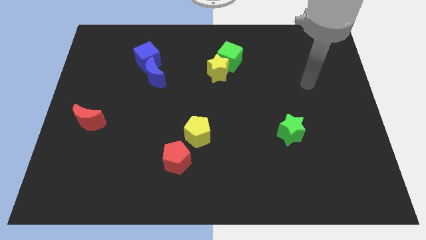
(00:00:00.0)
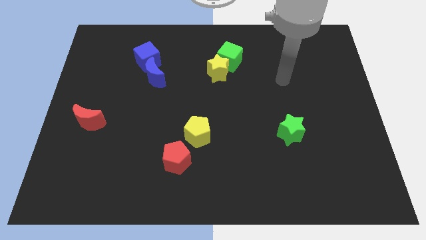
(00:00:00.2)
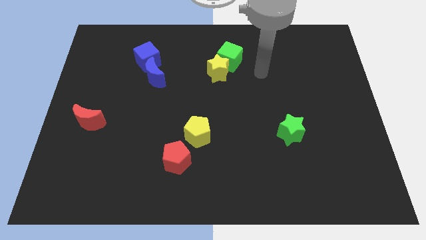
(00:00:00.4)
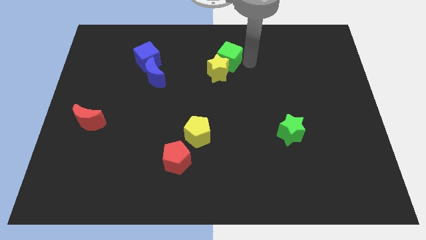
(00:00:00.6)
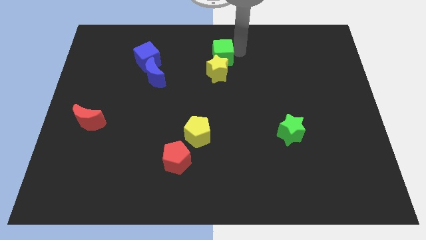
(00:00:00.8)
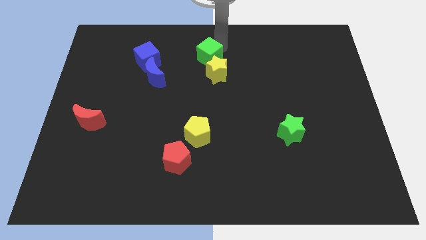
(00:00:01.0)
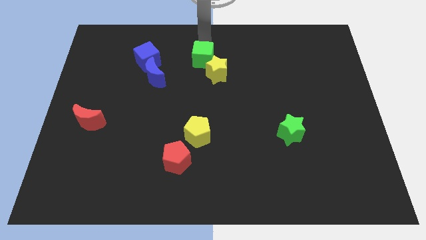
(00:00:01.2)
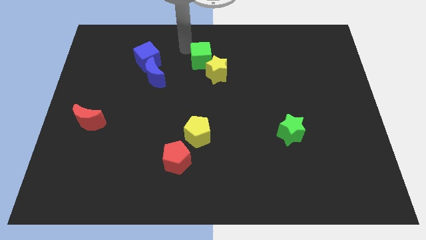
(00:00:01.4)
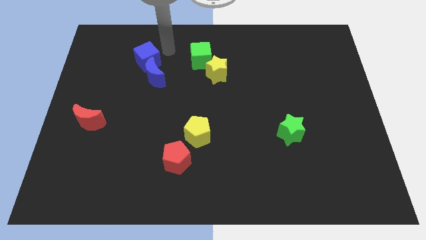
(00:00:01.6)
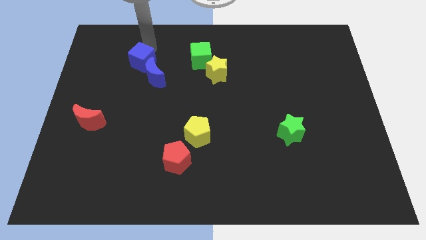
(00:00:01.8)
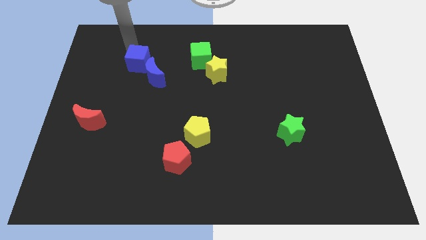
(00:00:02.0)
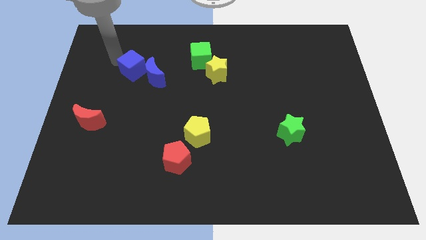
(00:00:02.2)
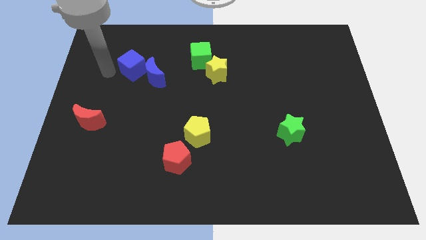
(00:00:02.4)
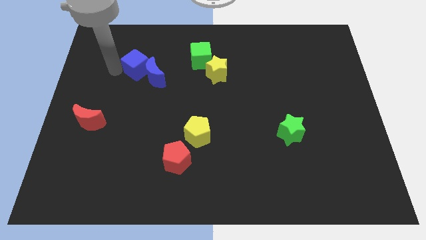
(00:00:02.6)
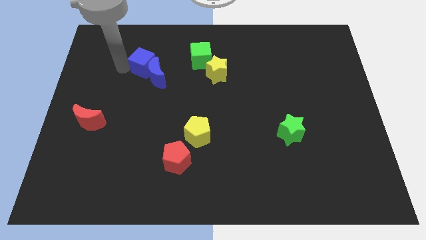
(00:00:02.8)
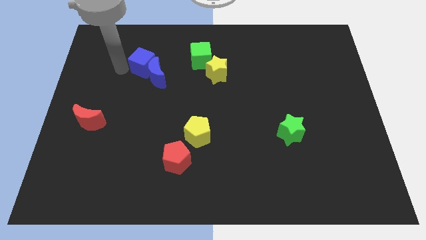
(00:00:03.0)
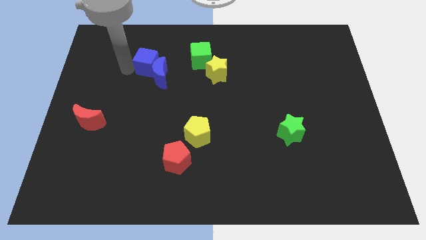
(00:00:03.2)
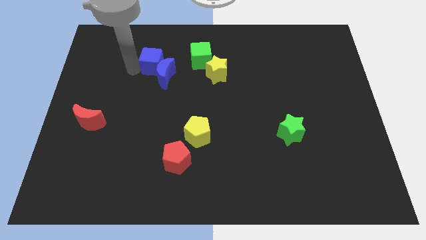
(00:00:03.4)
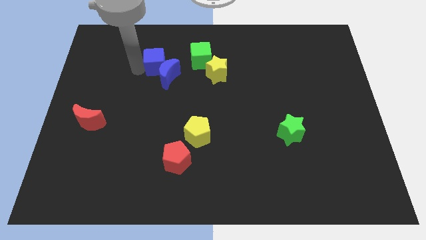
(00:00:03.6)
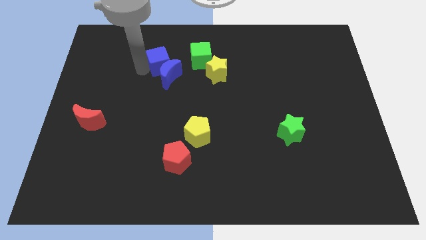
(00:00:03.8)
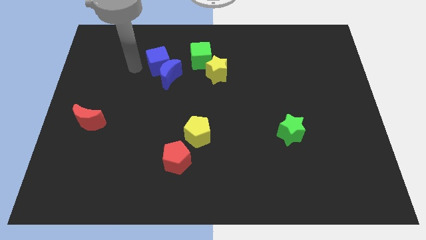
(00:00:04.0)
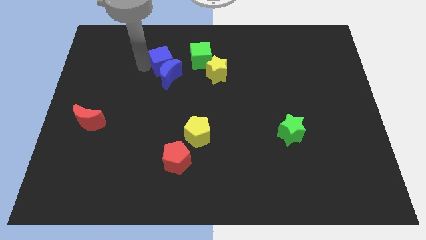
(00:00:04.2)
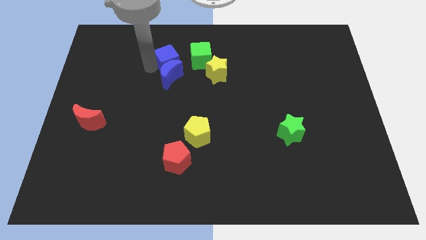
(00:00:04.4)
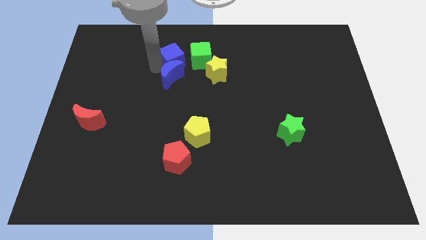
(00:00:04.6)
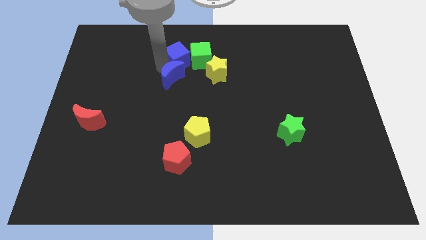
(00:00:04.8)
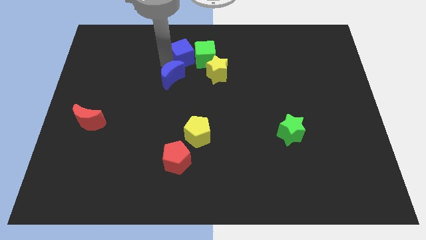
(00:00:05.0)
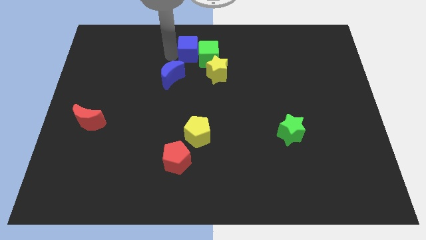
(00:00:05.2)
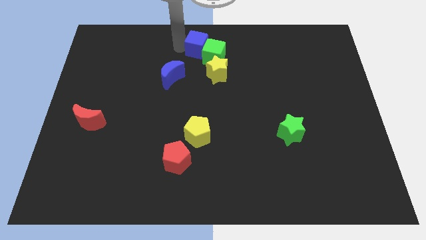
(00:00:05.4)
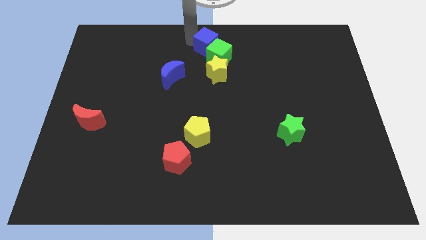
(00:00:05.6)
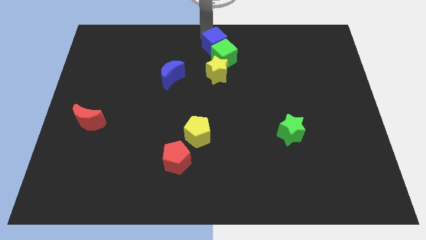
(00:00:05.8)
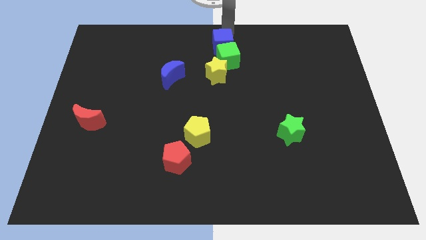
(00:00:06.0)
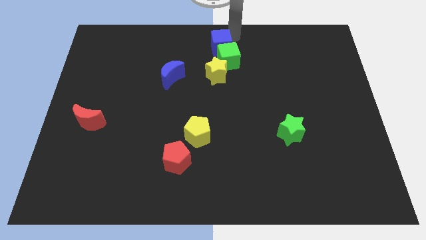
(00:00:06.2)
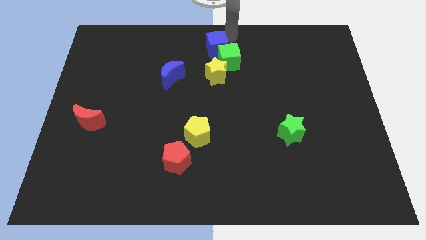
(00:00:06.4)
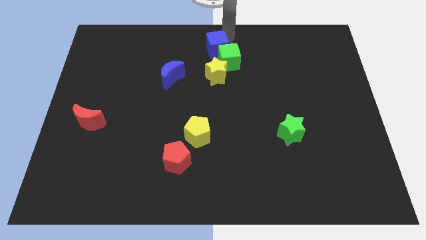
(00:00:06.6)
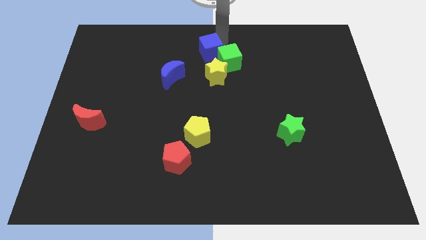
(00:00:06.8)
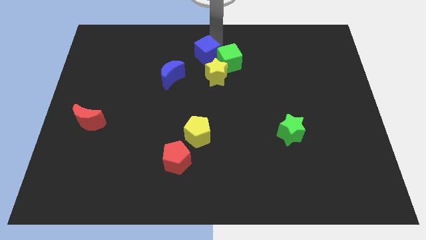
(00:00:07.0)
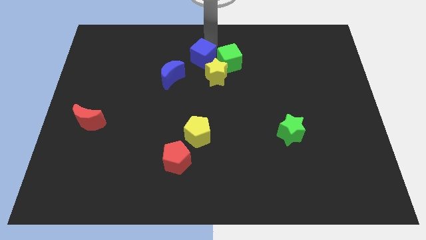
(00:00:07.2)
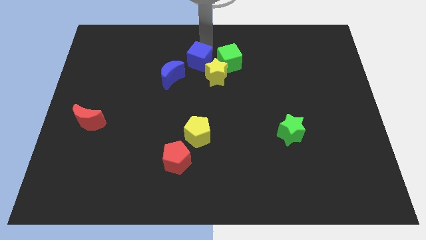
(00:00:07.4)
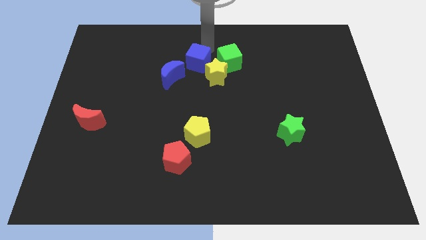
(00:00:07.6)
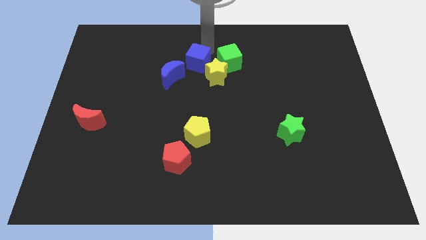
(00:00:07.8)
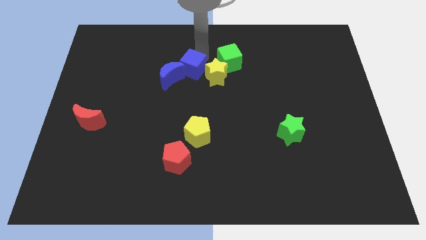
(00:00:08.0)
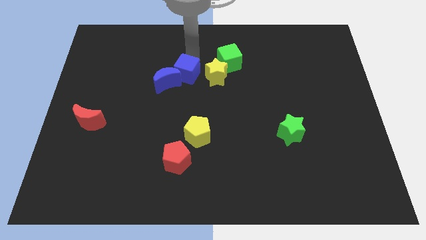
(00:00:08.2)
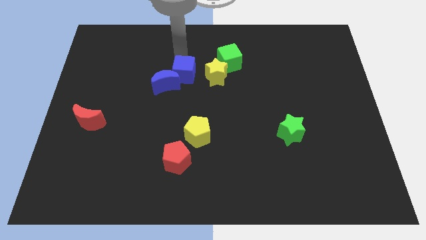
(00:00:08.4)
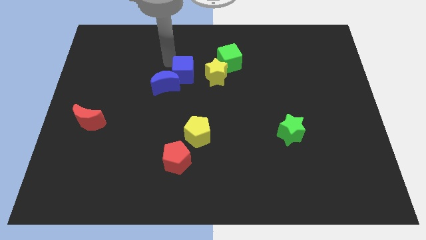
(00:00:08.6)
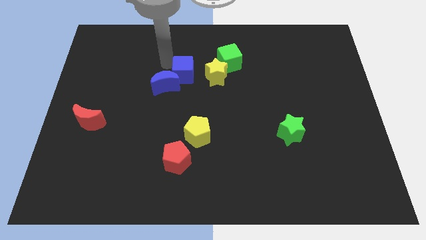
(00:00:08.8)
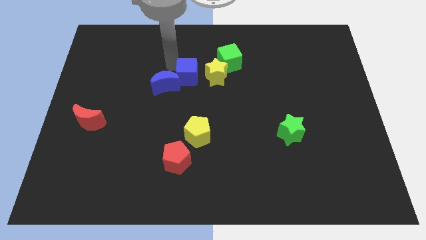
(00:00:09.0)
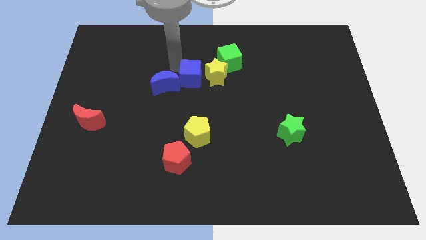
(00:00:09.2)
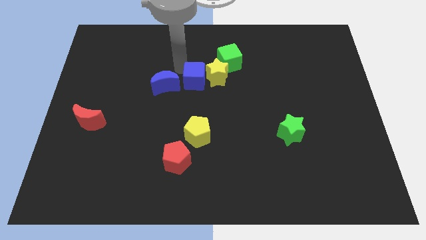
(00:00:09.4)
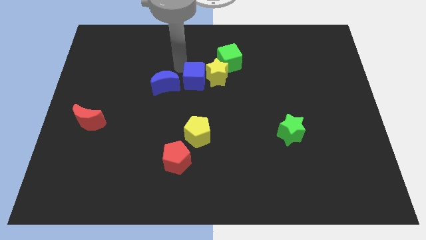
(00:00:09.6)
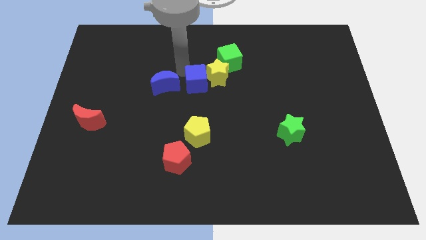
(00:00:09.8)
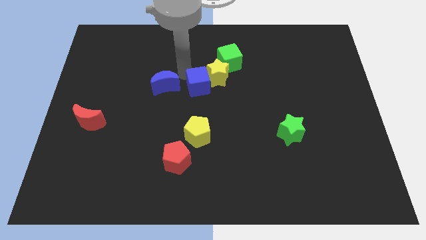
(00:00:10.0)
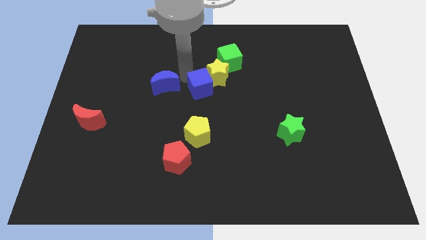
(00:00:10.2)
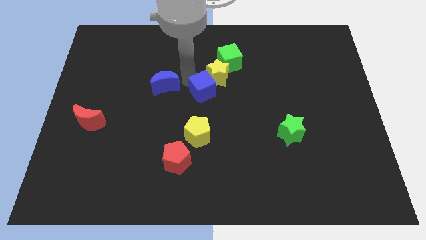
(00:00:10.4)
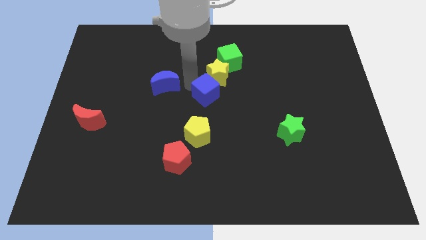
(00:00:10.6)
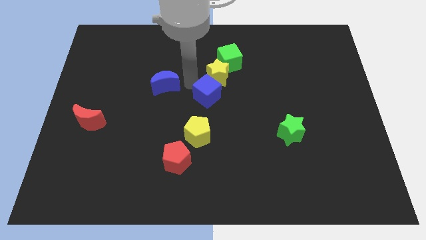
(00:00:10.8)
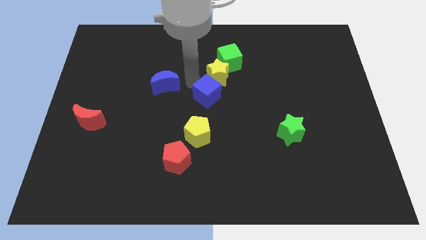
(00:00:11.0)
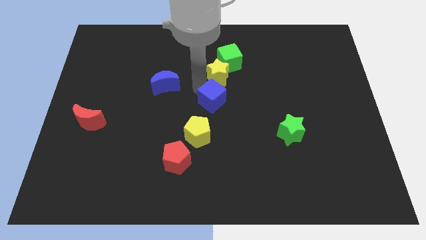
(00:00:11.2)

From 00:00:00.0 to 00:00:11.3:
slide the blue cube diagonally down and to the right

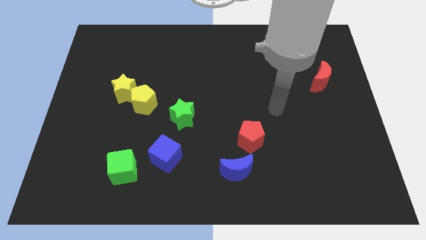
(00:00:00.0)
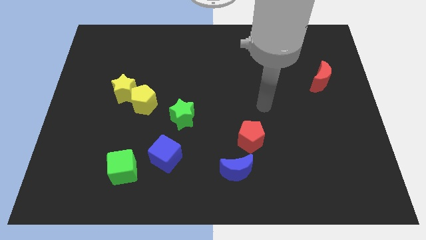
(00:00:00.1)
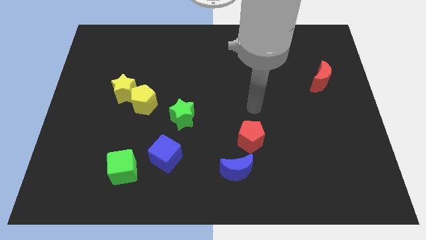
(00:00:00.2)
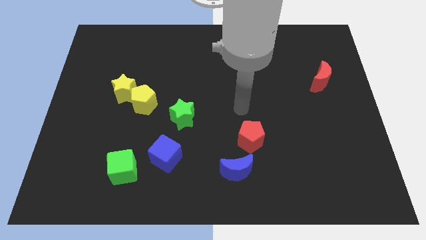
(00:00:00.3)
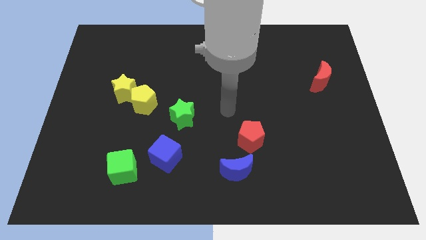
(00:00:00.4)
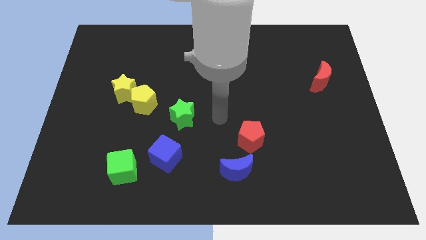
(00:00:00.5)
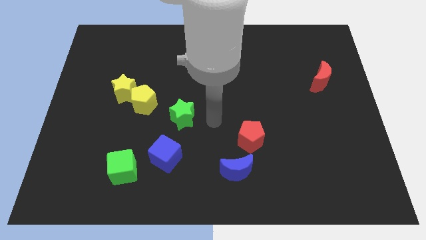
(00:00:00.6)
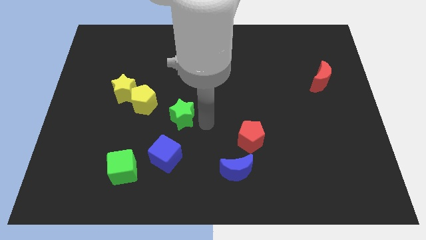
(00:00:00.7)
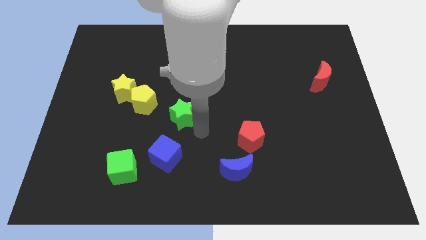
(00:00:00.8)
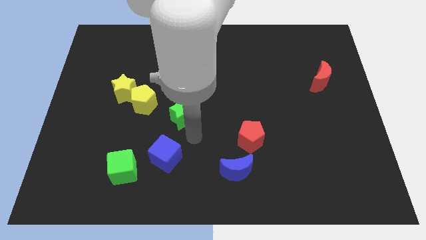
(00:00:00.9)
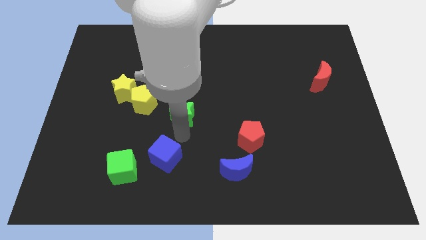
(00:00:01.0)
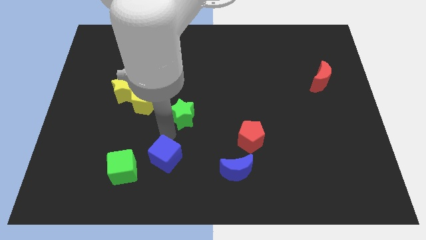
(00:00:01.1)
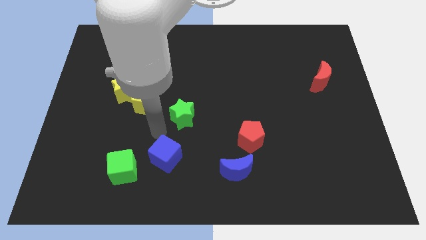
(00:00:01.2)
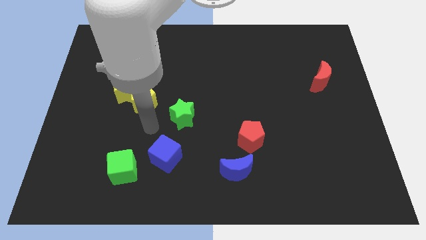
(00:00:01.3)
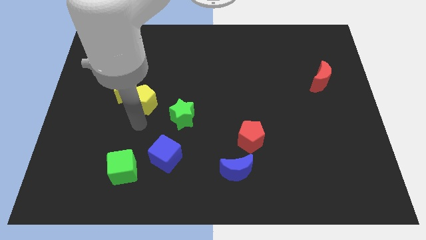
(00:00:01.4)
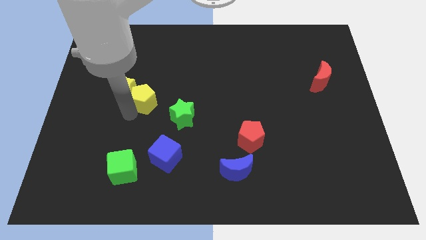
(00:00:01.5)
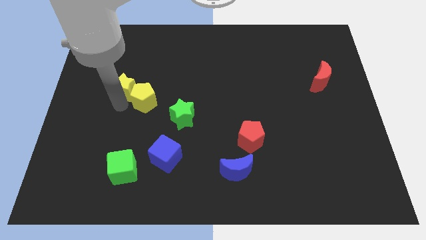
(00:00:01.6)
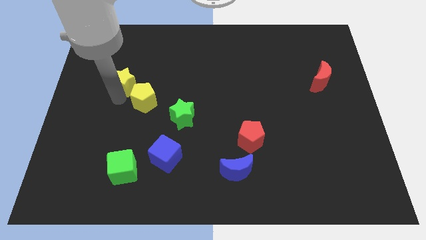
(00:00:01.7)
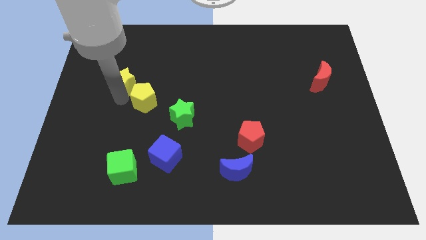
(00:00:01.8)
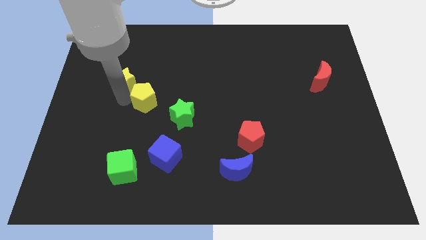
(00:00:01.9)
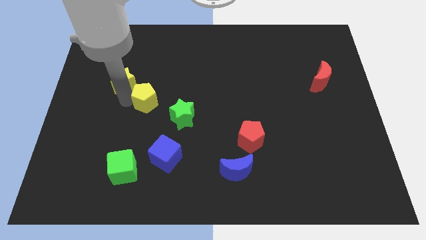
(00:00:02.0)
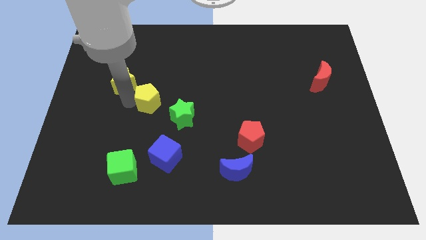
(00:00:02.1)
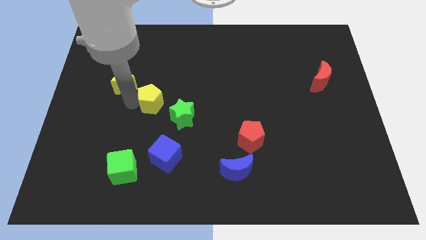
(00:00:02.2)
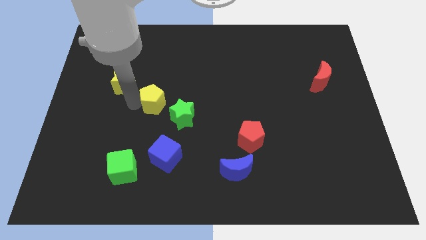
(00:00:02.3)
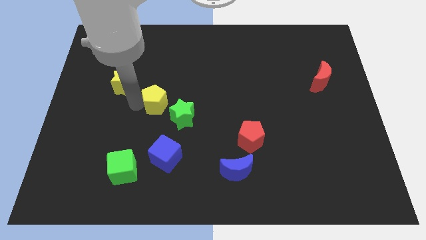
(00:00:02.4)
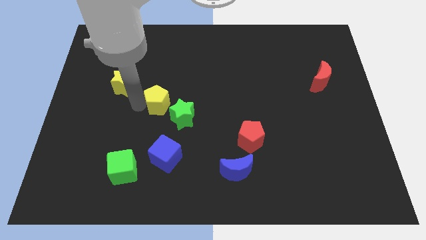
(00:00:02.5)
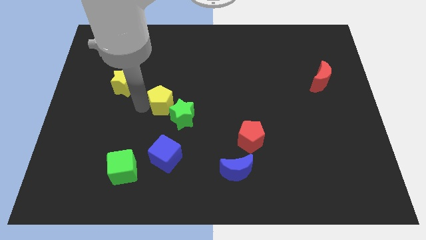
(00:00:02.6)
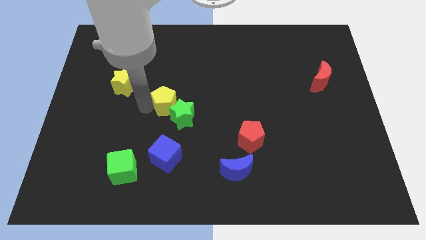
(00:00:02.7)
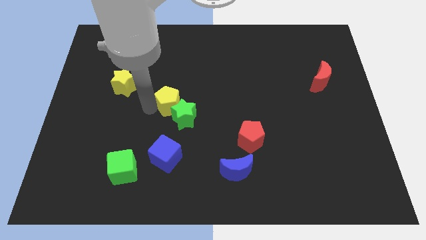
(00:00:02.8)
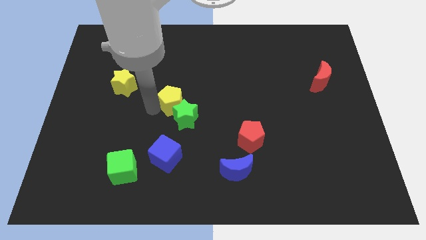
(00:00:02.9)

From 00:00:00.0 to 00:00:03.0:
slightly move the yellow pentagon right
